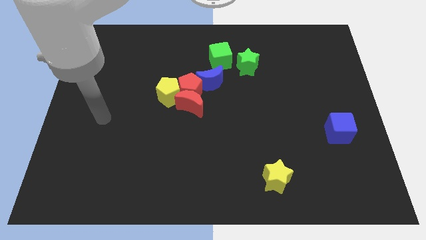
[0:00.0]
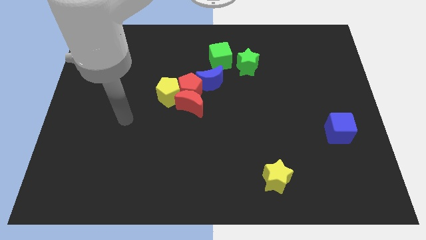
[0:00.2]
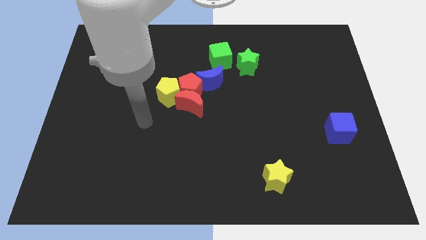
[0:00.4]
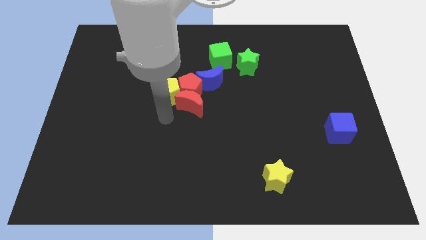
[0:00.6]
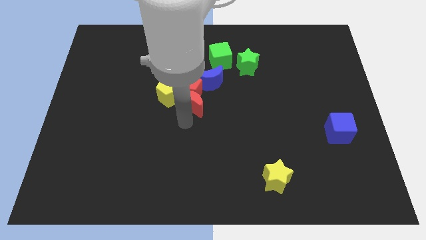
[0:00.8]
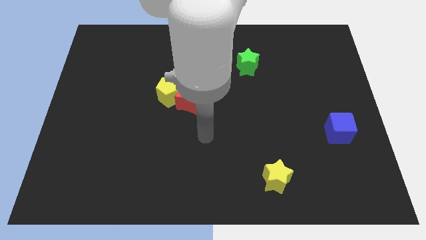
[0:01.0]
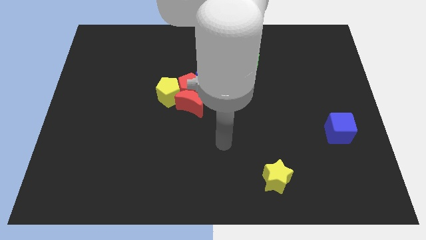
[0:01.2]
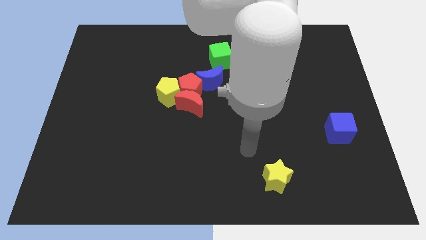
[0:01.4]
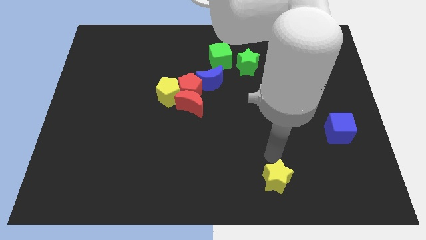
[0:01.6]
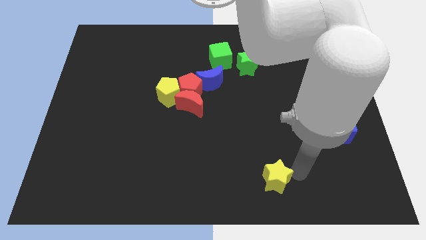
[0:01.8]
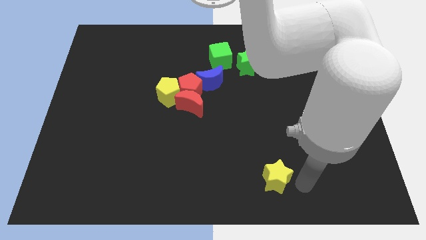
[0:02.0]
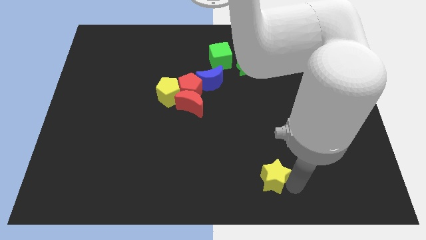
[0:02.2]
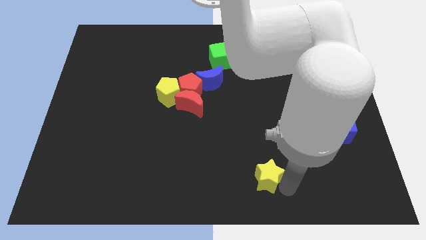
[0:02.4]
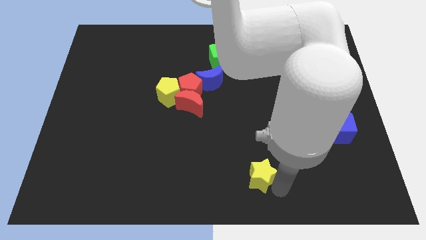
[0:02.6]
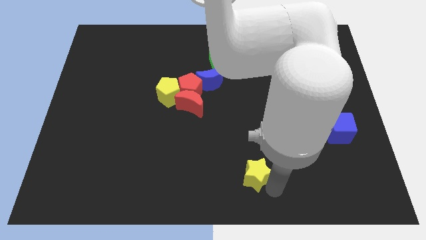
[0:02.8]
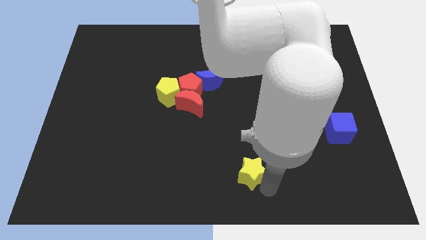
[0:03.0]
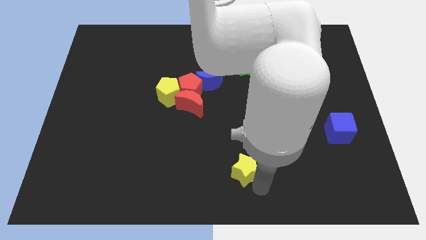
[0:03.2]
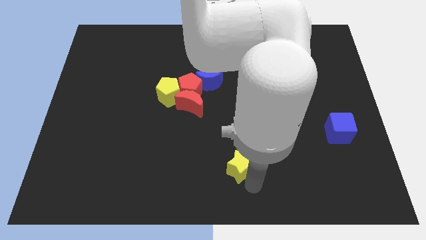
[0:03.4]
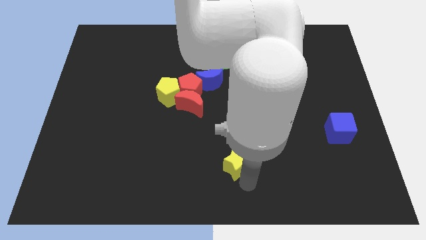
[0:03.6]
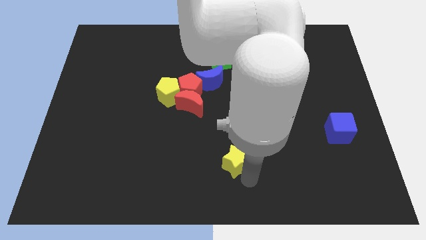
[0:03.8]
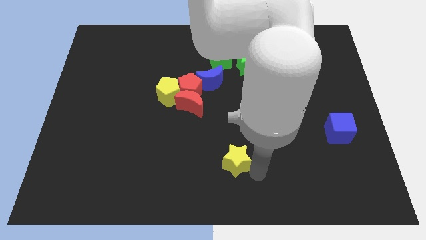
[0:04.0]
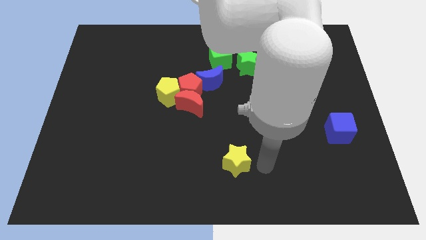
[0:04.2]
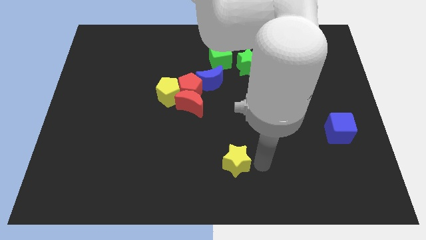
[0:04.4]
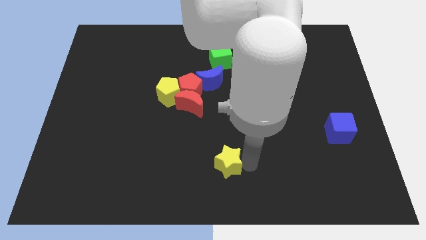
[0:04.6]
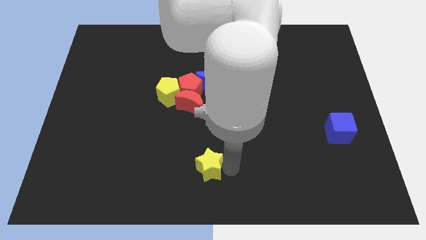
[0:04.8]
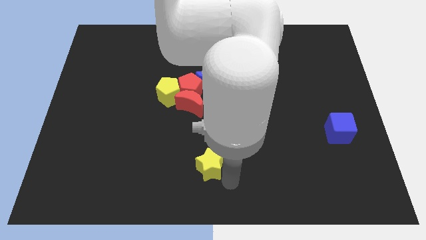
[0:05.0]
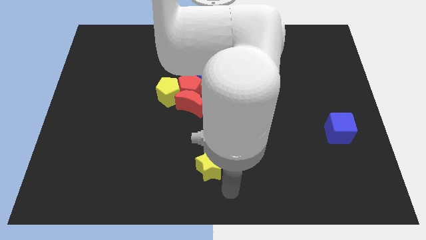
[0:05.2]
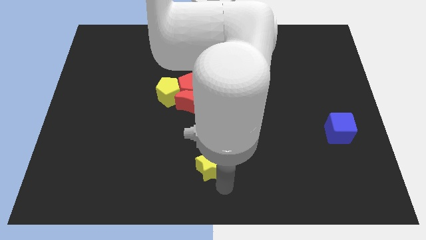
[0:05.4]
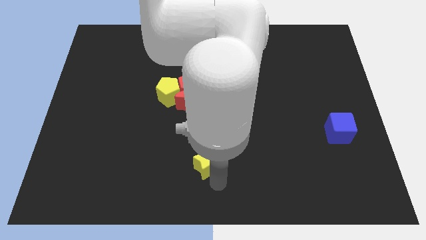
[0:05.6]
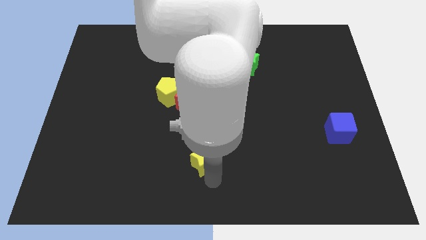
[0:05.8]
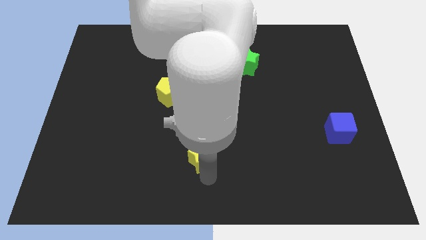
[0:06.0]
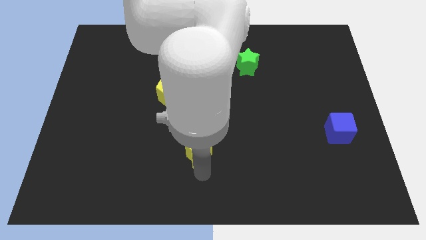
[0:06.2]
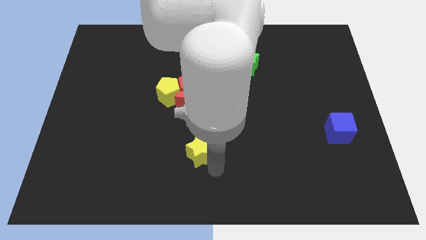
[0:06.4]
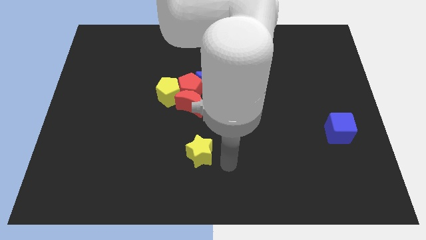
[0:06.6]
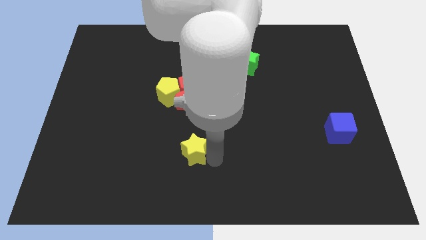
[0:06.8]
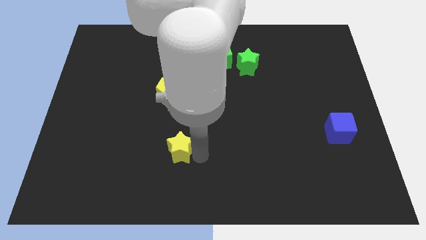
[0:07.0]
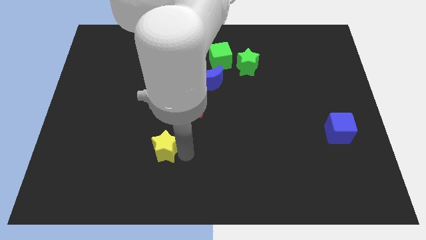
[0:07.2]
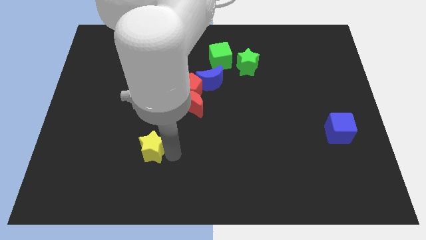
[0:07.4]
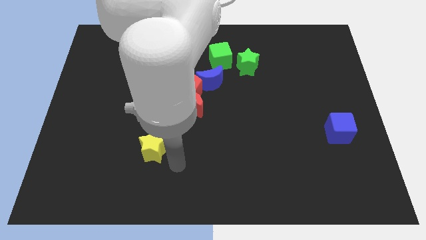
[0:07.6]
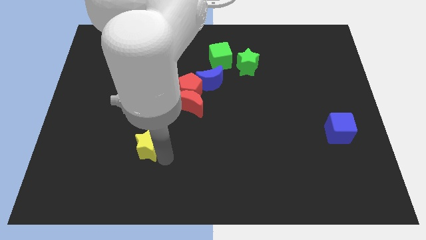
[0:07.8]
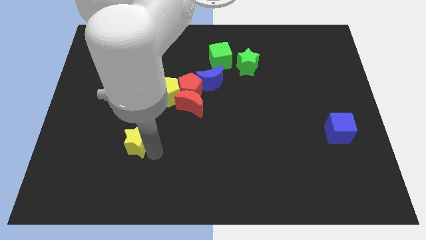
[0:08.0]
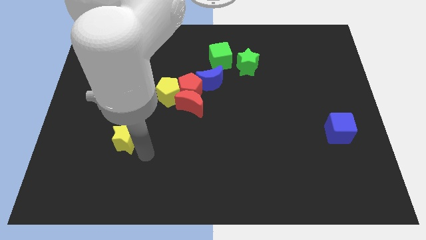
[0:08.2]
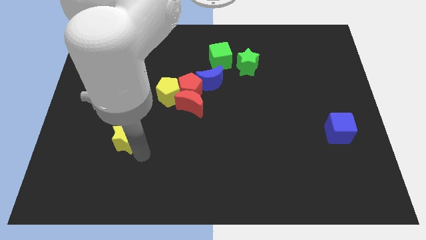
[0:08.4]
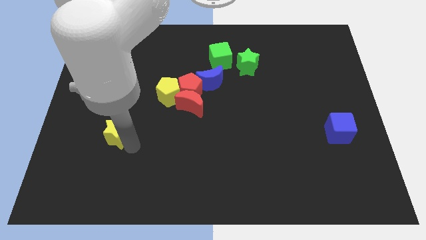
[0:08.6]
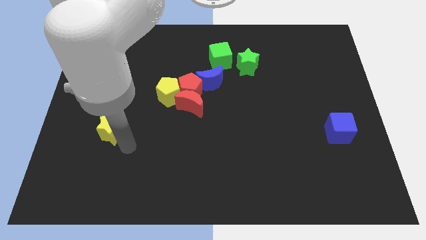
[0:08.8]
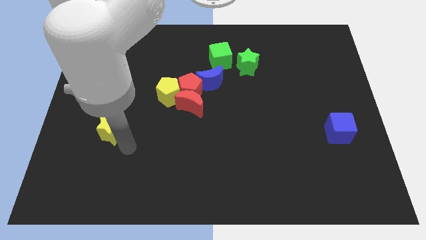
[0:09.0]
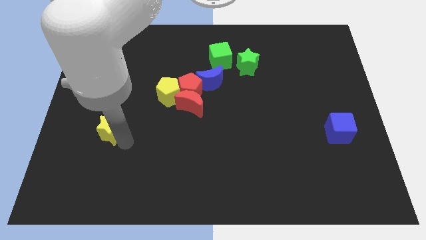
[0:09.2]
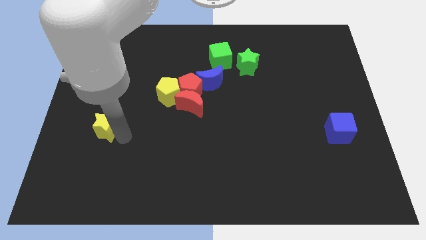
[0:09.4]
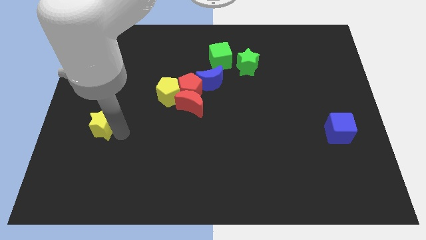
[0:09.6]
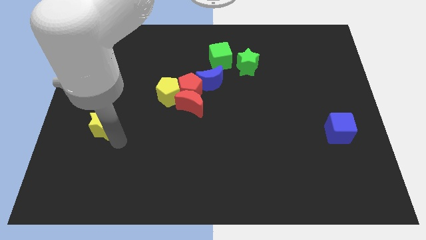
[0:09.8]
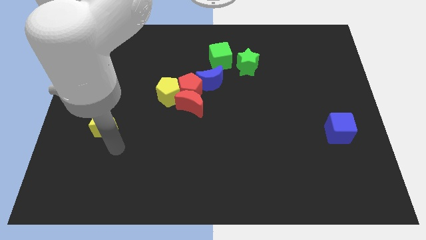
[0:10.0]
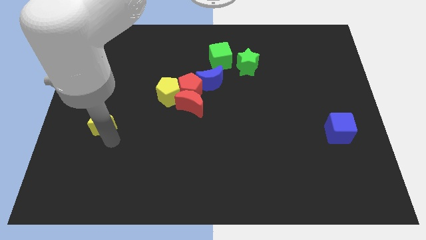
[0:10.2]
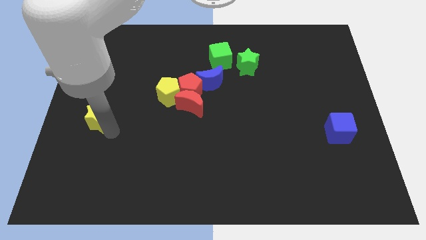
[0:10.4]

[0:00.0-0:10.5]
move the yellow star to the left side
